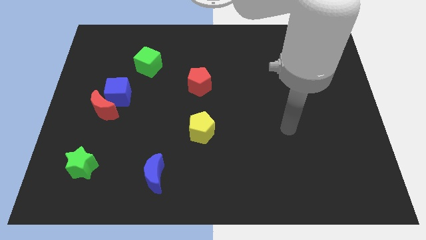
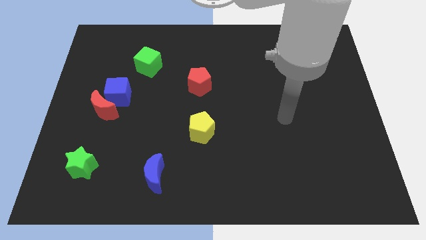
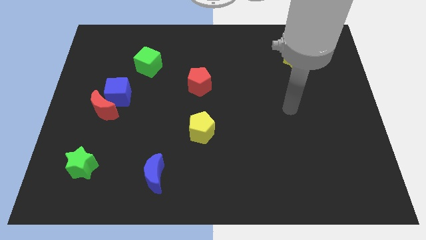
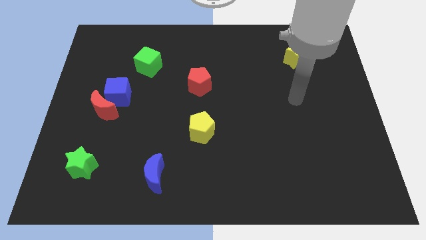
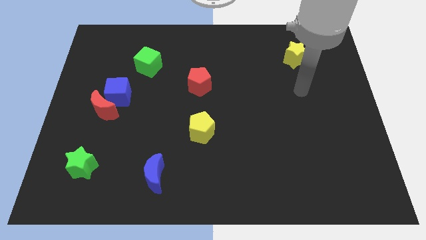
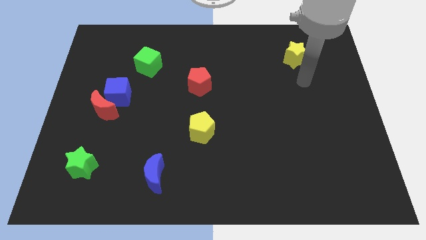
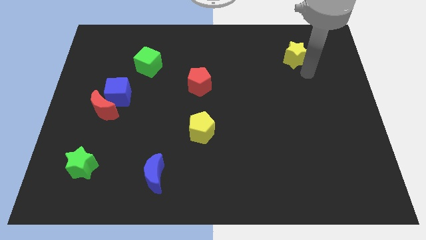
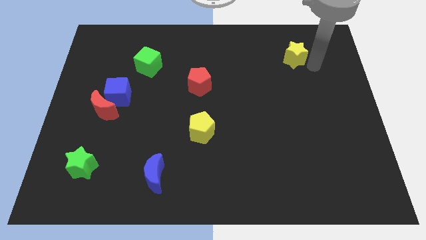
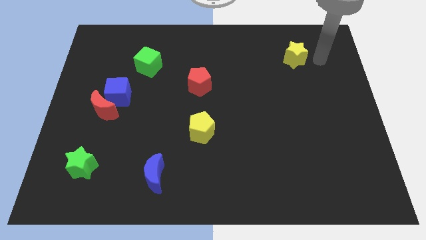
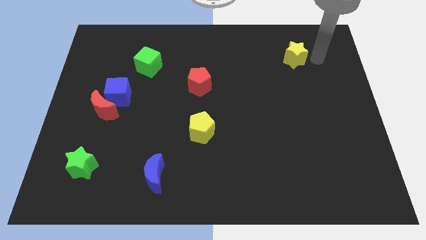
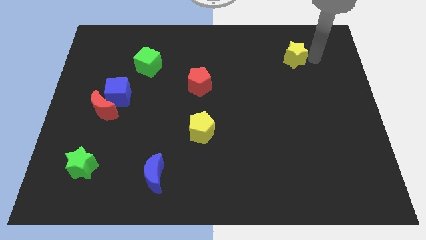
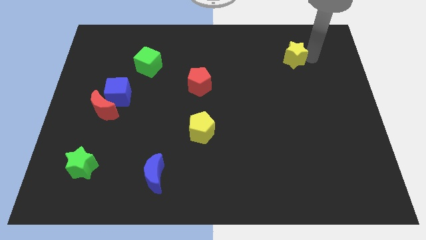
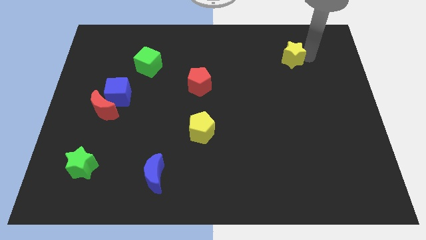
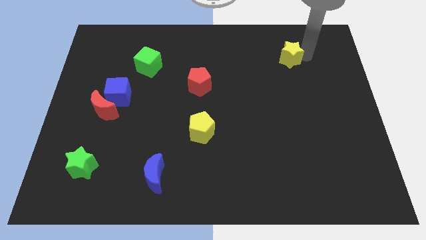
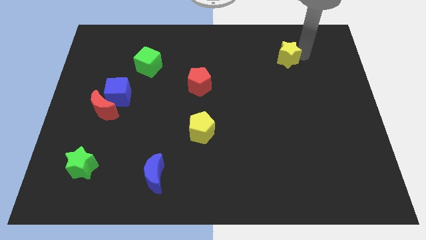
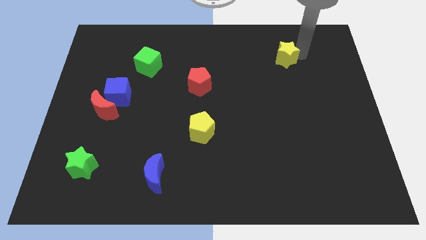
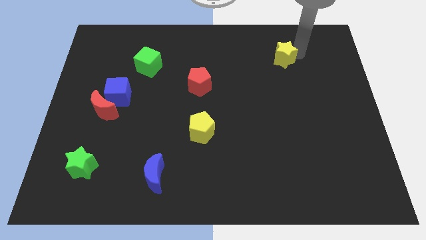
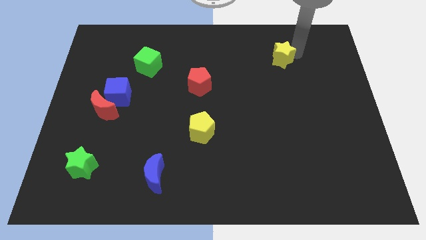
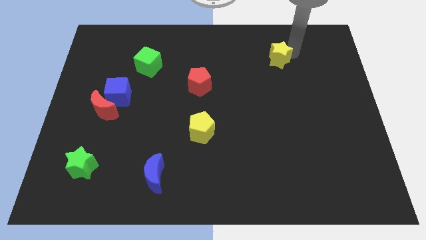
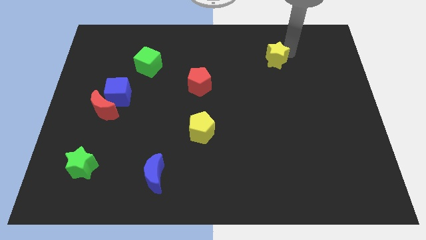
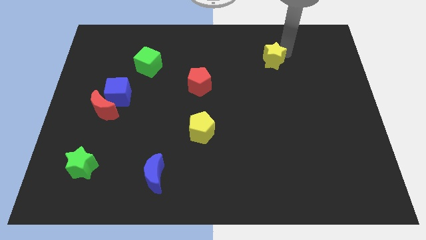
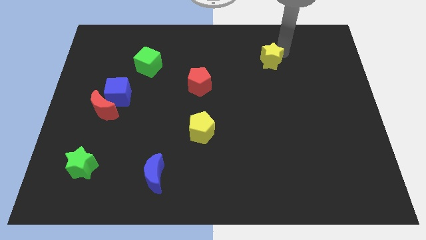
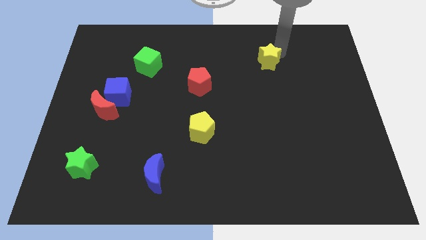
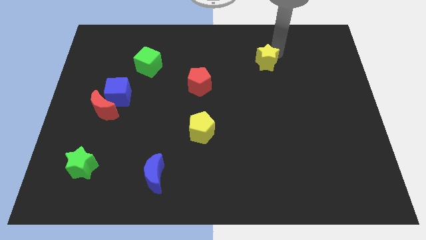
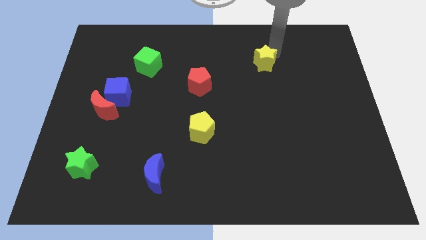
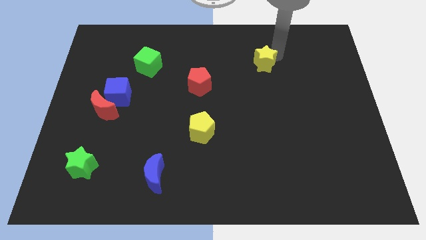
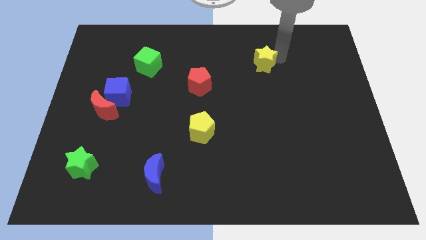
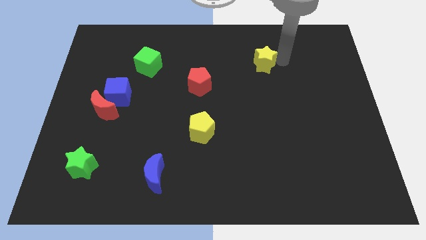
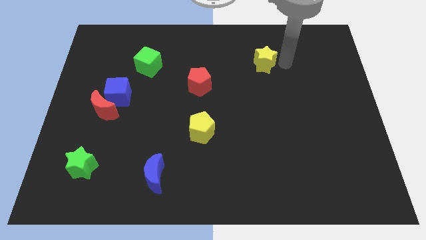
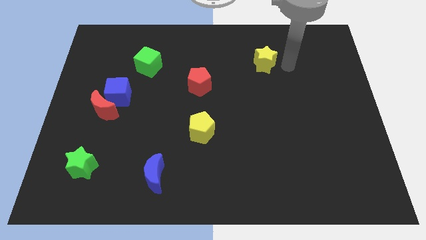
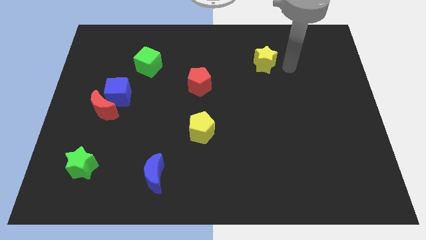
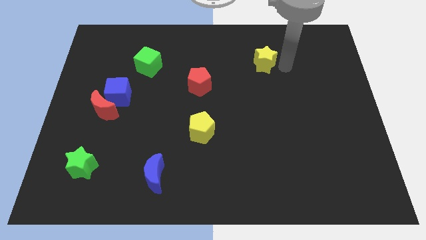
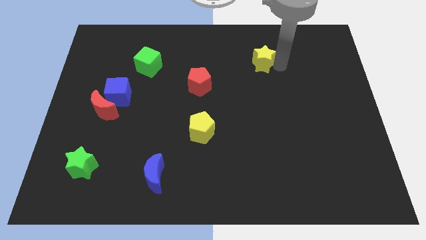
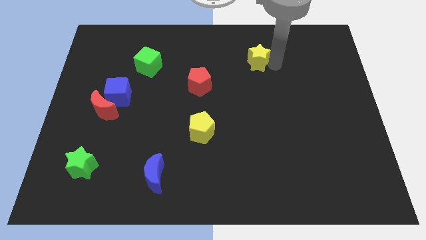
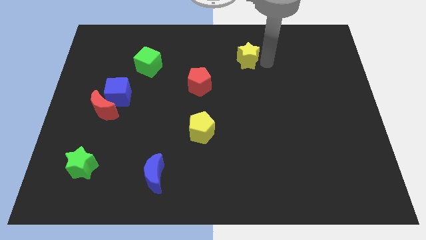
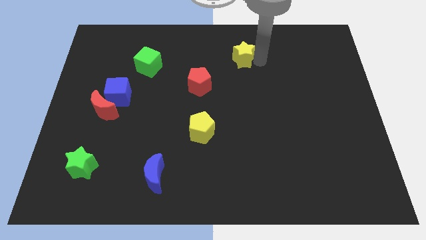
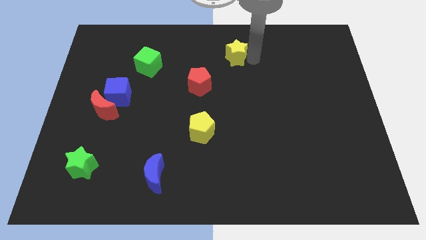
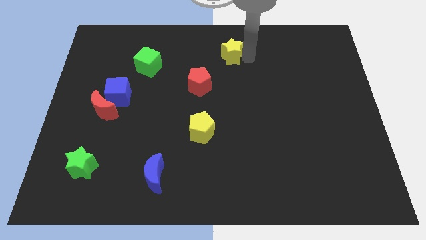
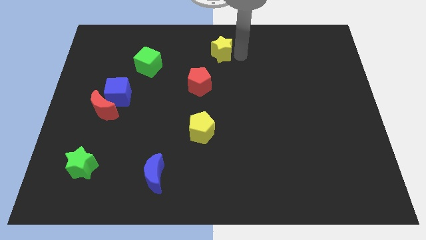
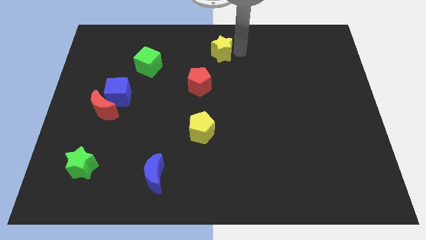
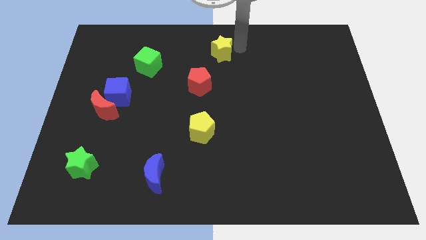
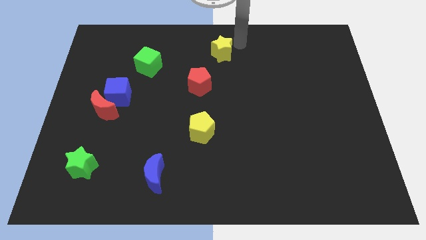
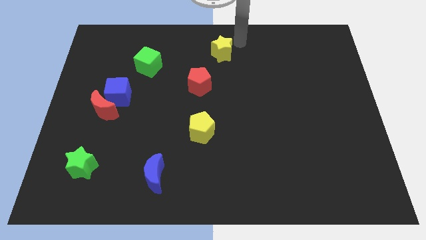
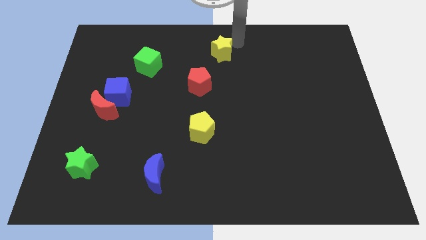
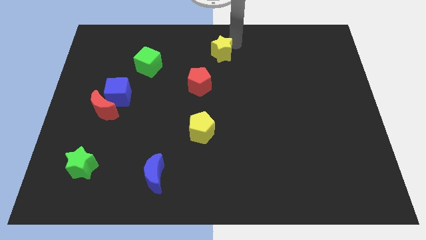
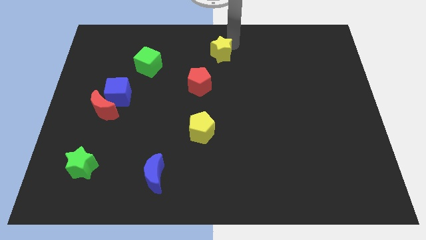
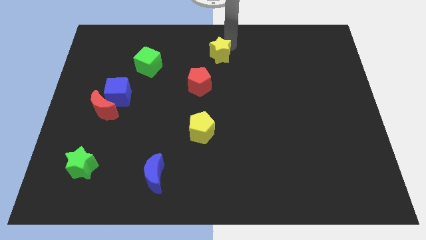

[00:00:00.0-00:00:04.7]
slide the yellow star to the left

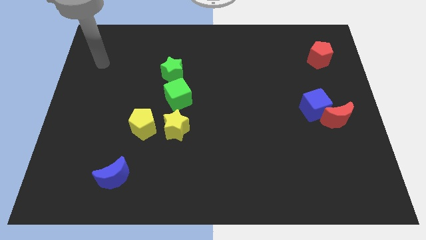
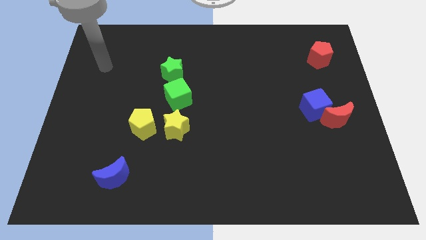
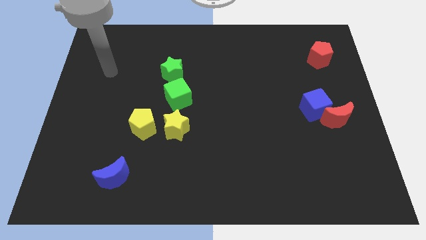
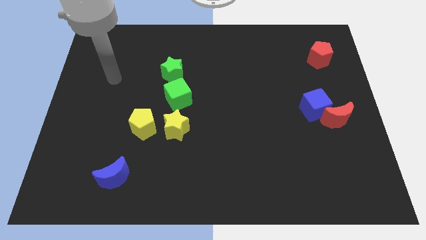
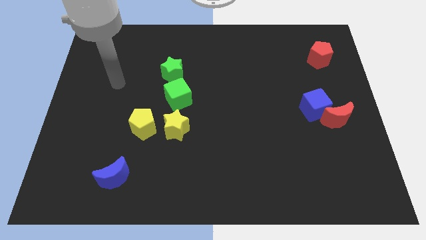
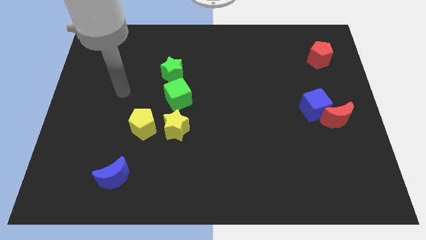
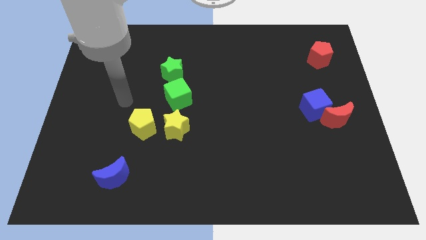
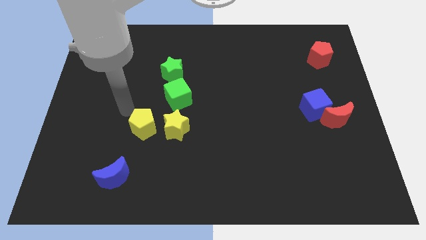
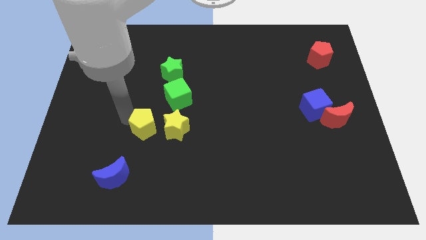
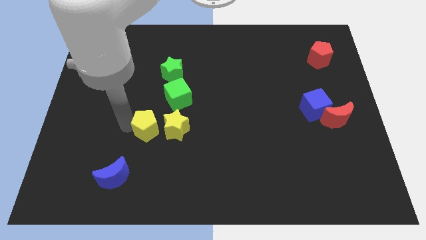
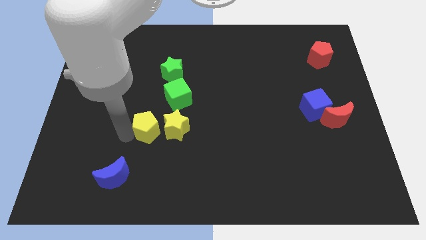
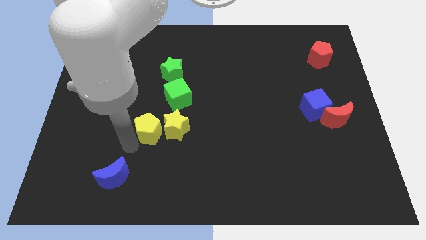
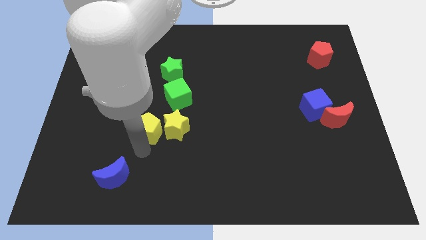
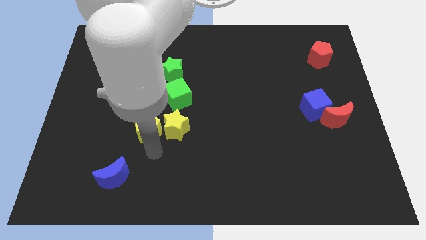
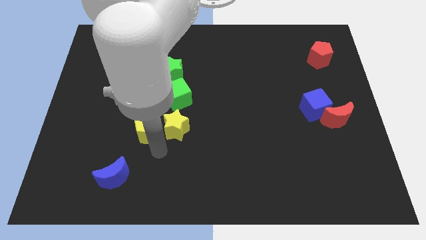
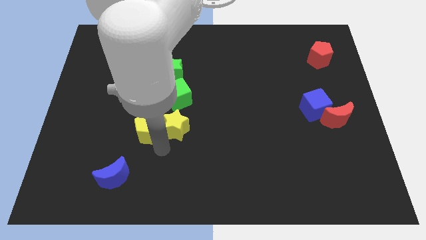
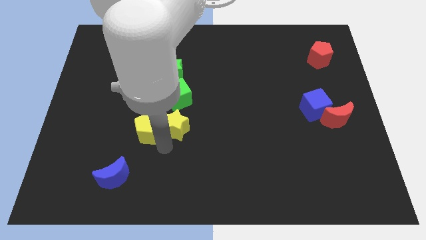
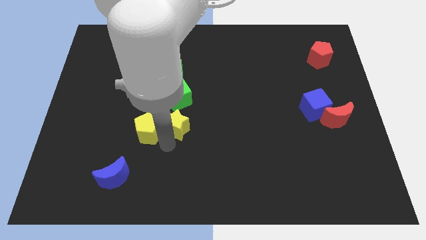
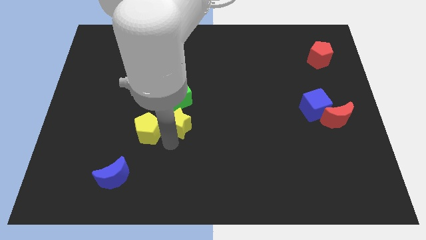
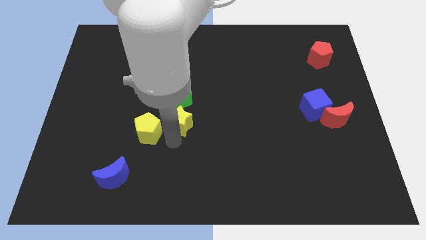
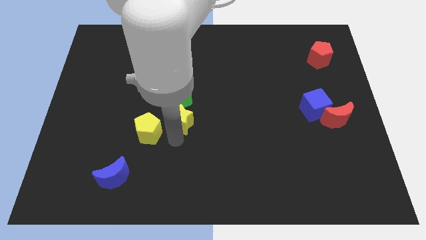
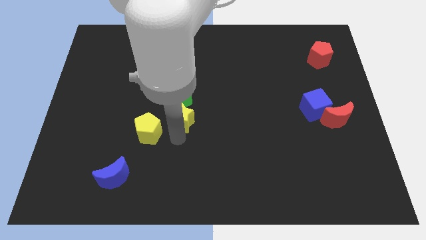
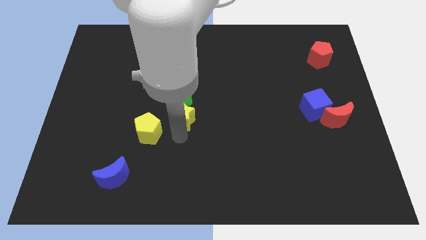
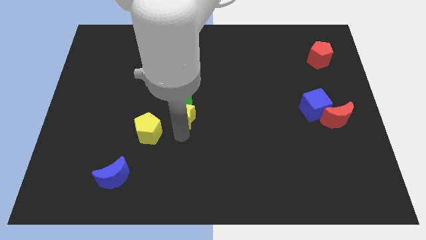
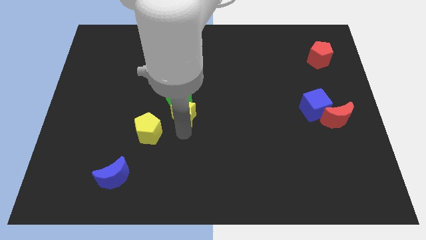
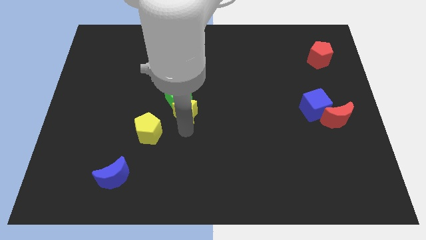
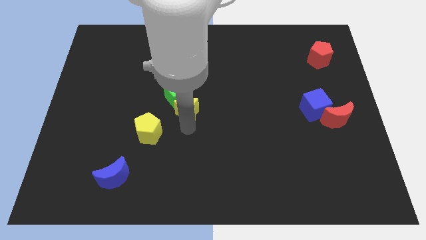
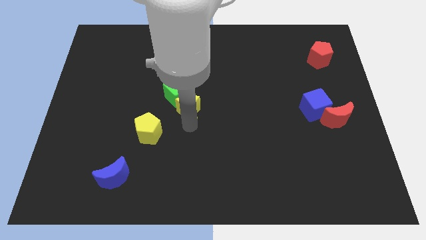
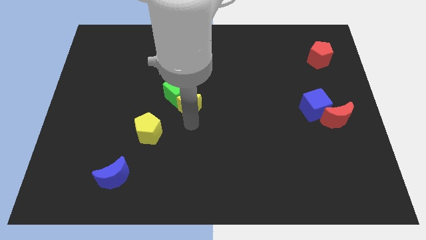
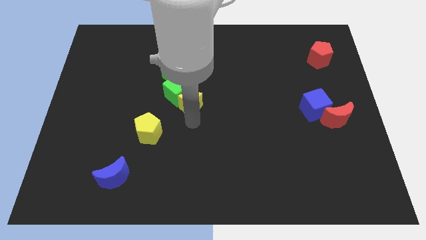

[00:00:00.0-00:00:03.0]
slide the yellow star upwards and right diagonally a little

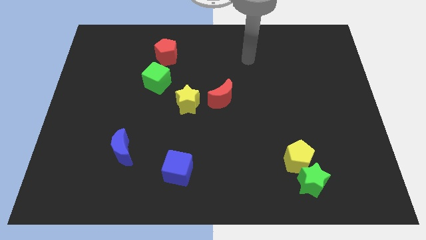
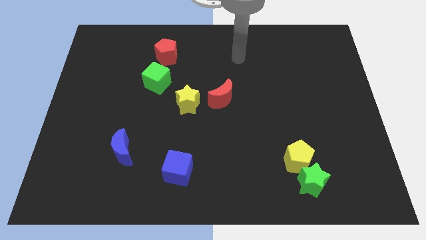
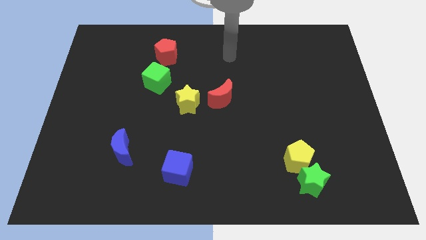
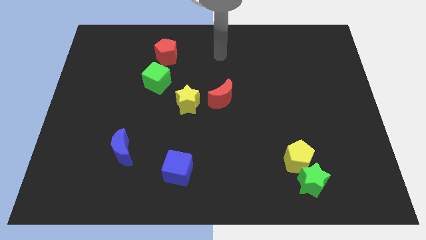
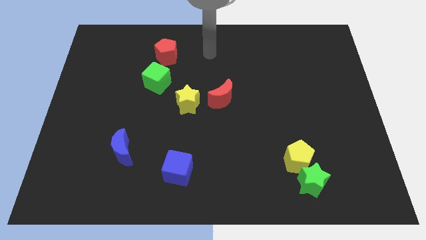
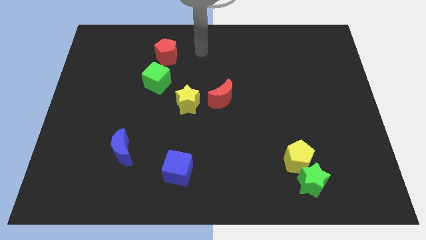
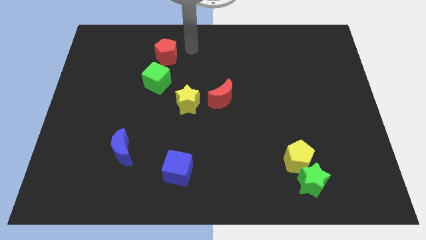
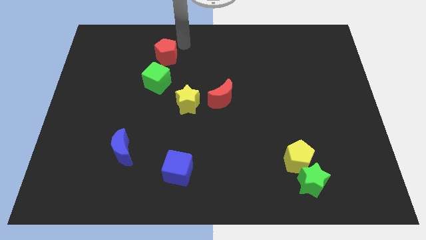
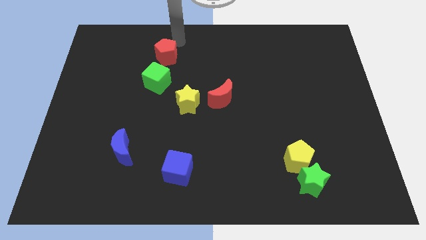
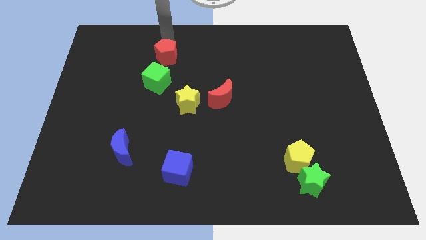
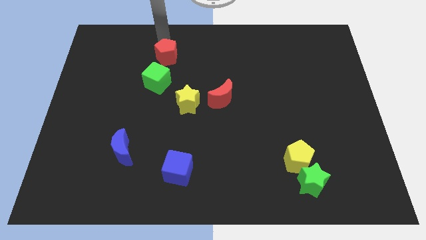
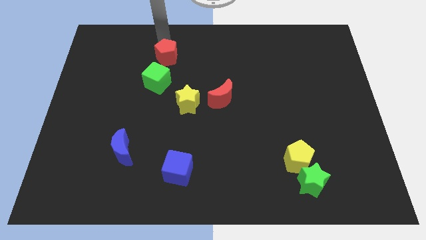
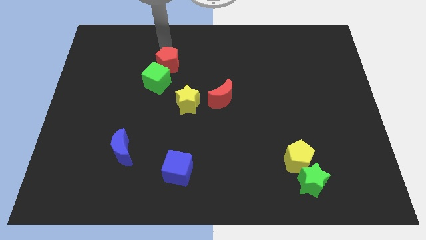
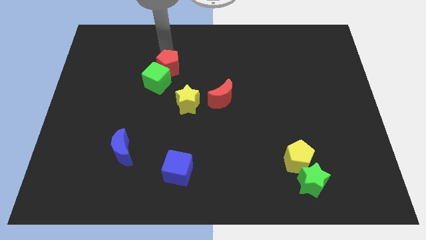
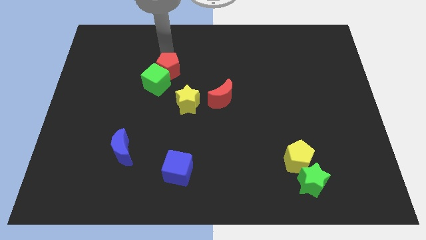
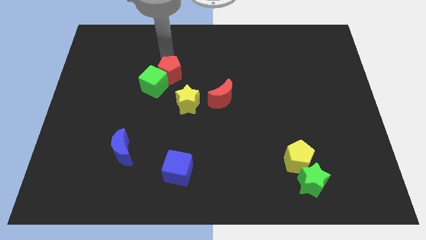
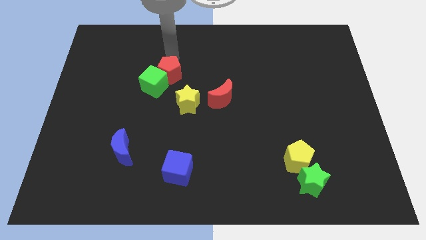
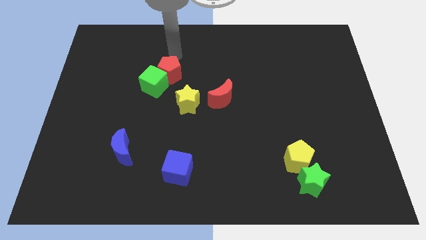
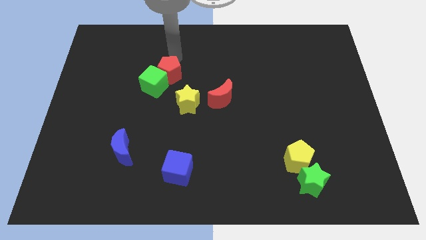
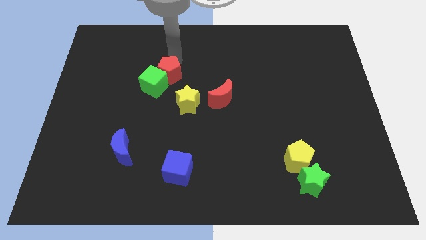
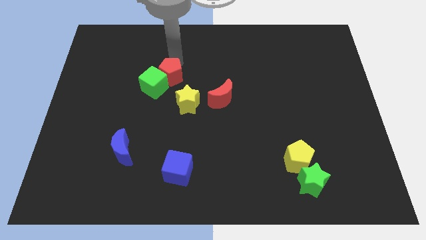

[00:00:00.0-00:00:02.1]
slightly push the red pentagon downwards
